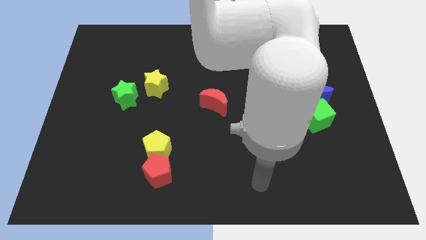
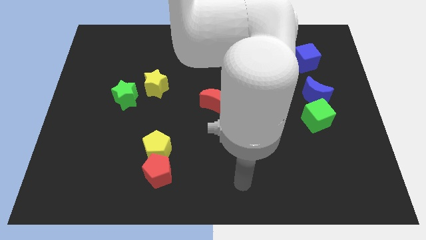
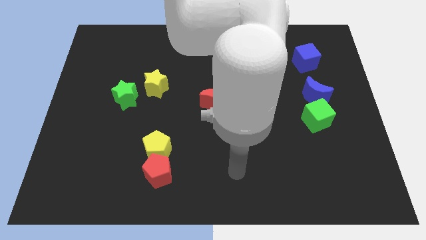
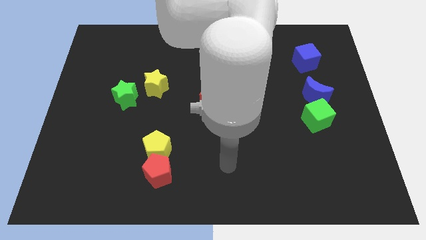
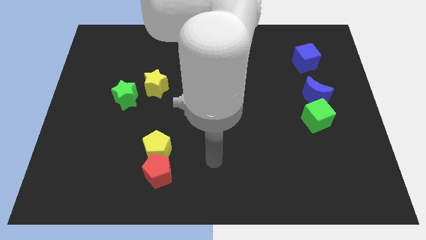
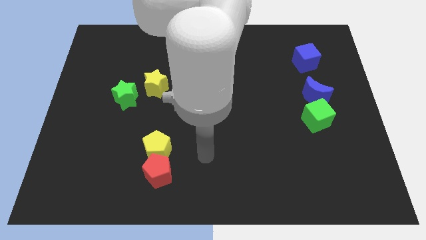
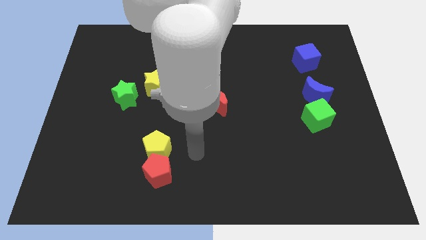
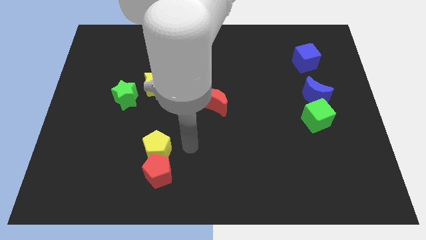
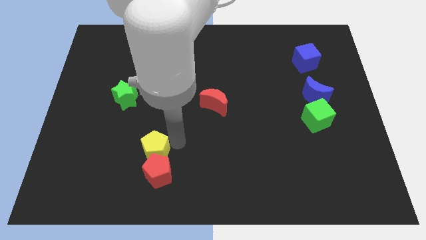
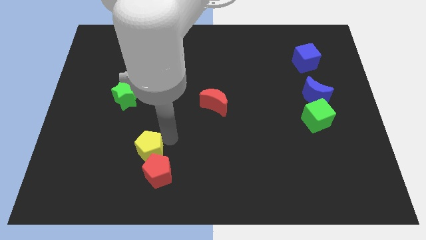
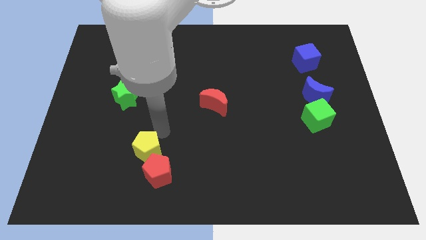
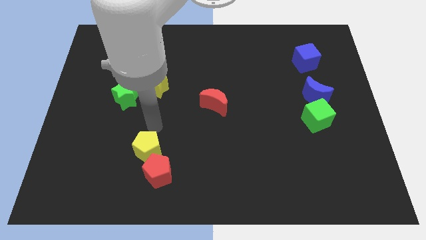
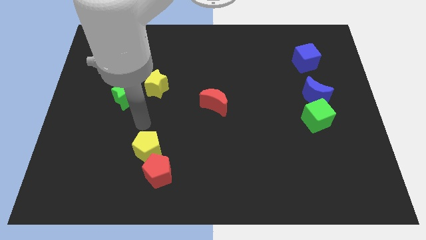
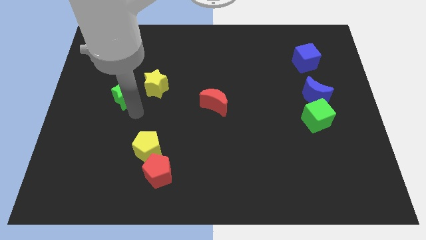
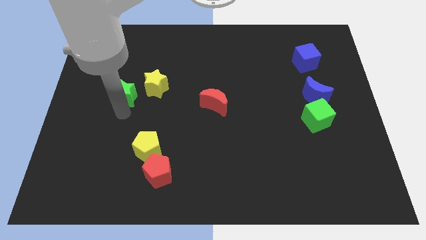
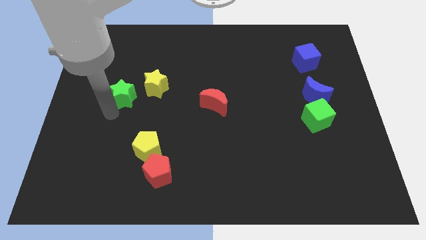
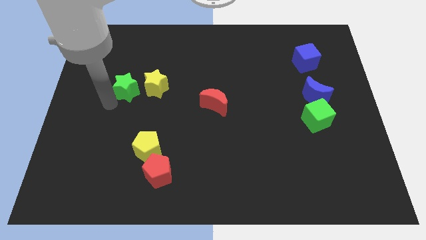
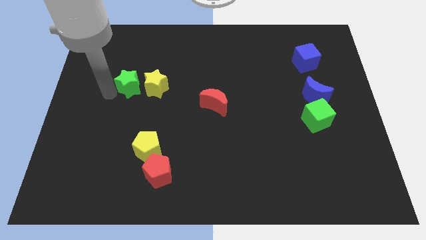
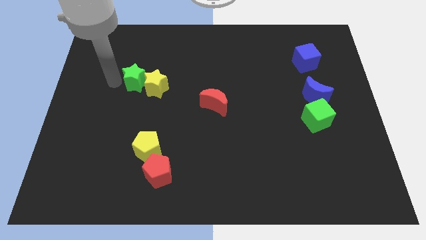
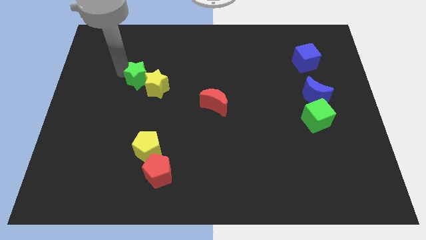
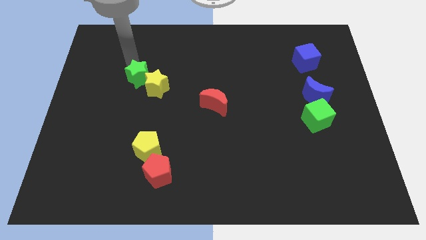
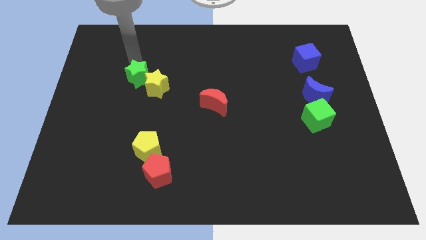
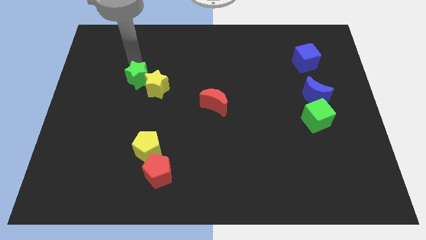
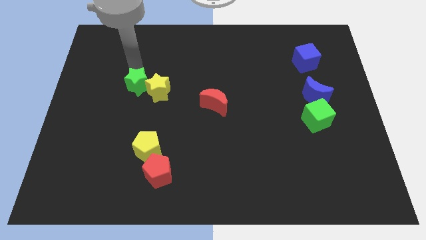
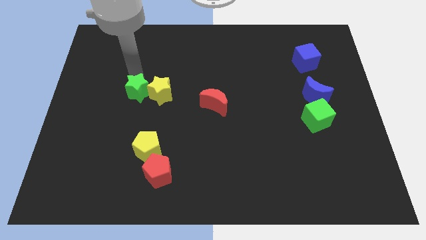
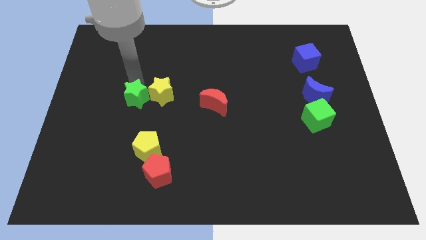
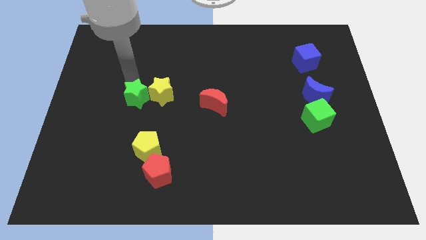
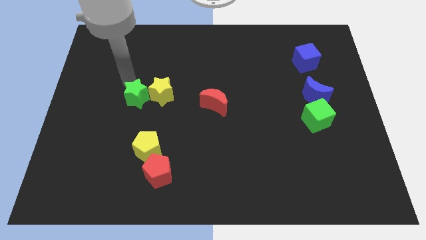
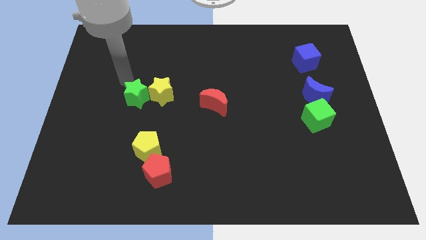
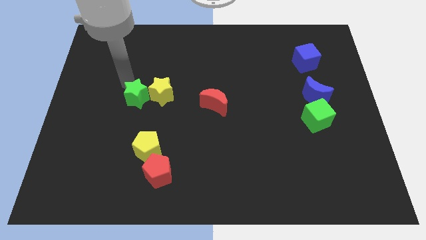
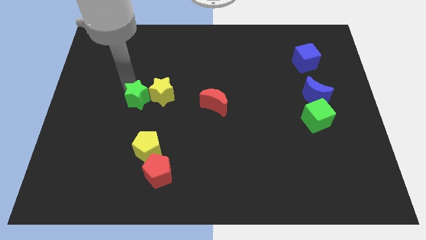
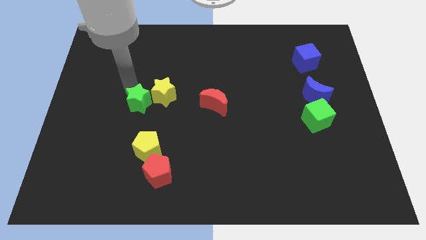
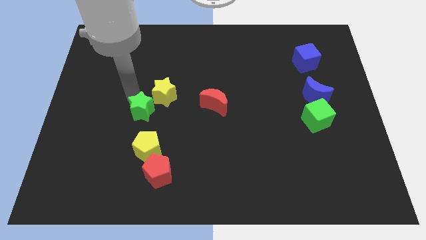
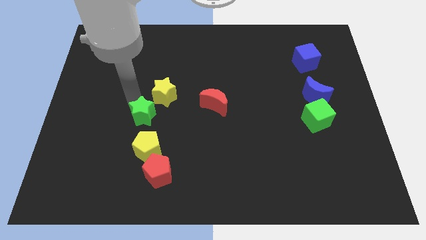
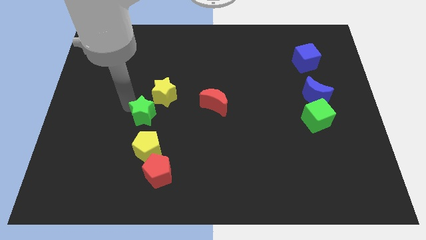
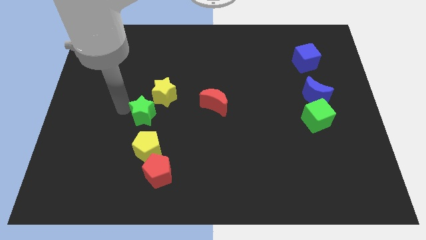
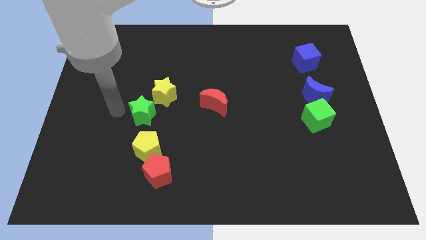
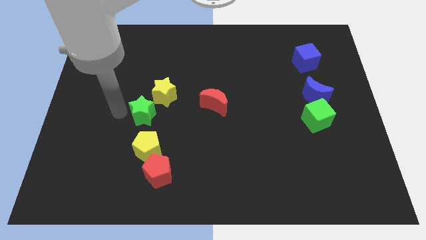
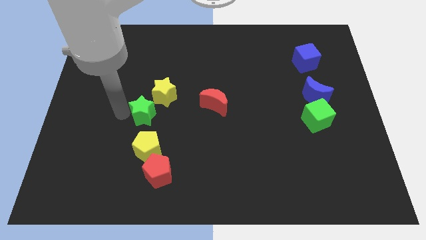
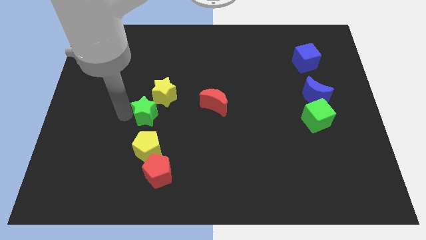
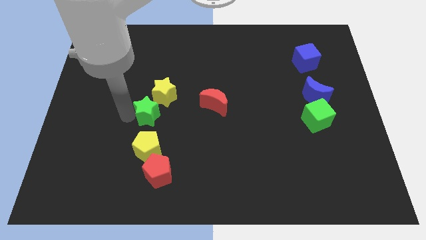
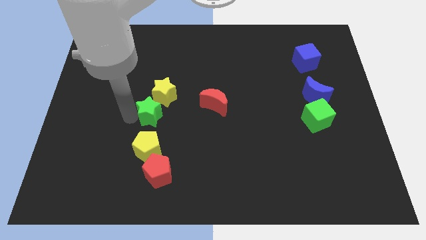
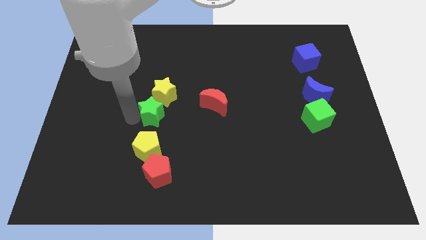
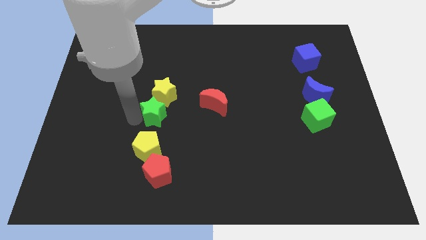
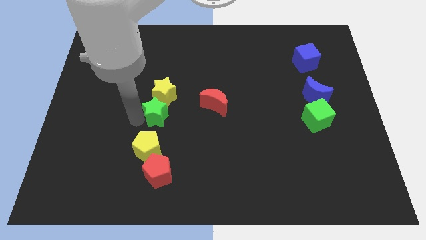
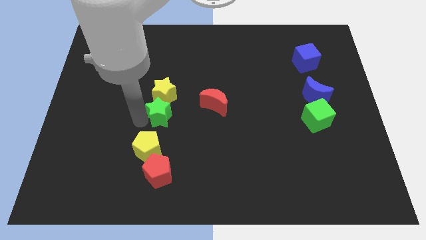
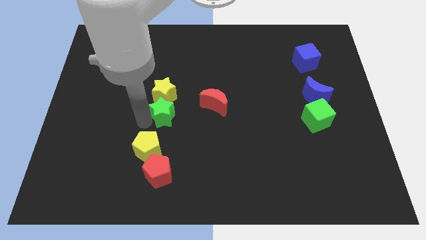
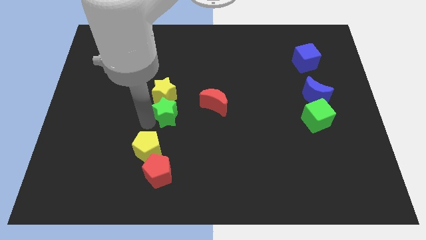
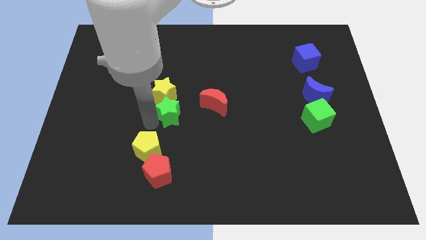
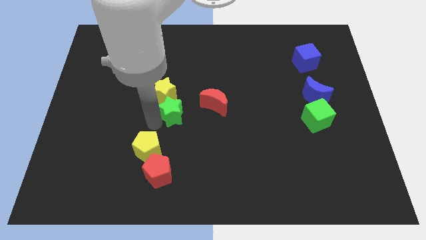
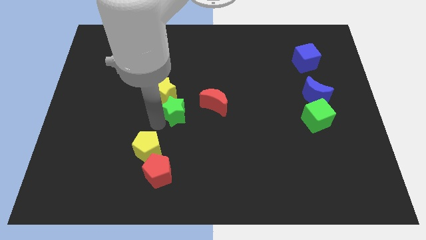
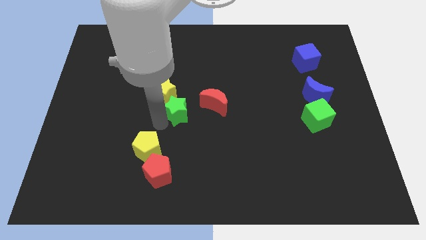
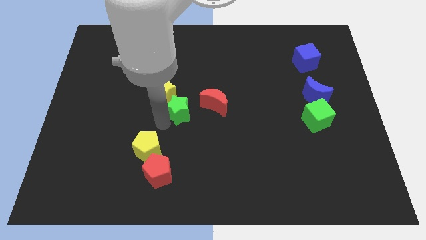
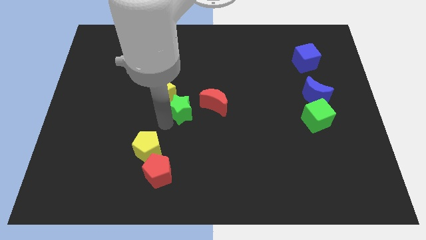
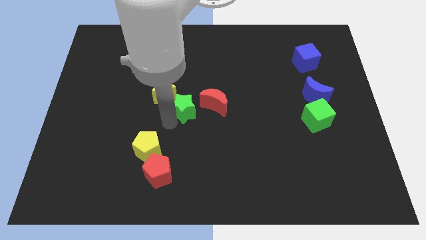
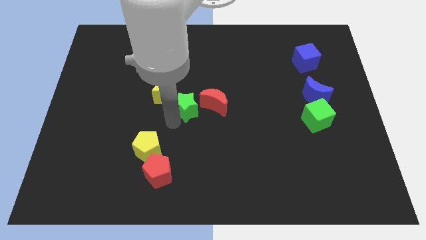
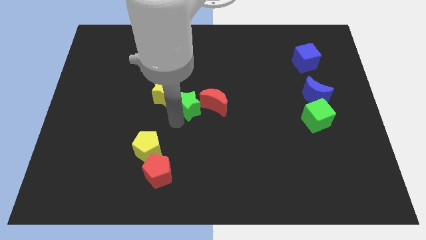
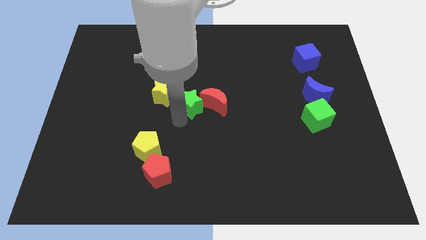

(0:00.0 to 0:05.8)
move the green star next to the red moon

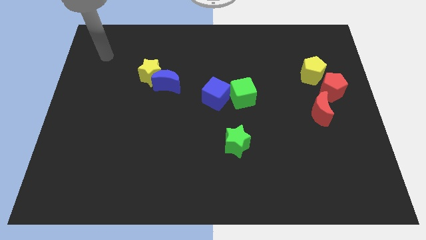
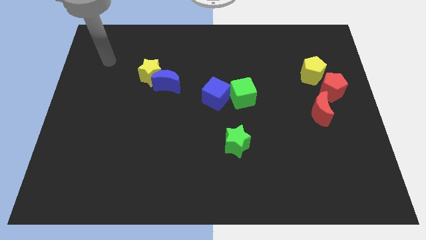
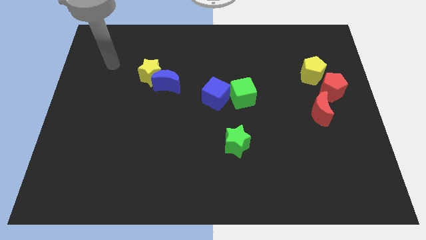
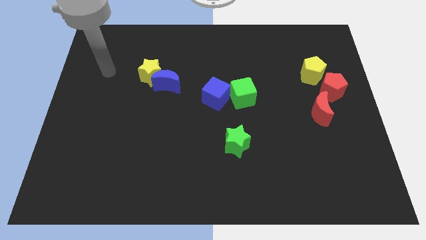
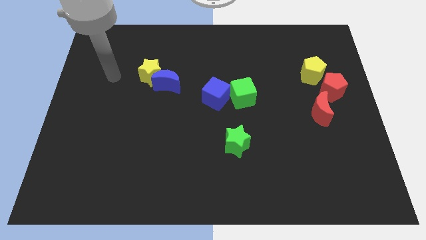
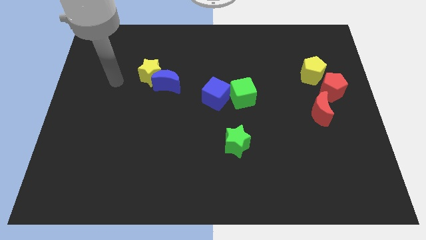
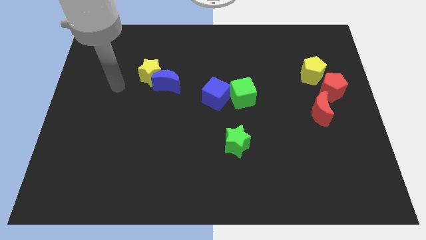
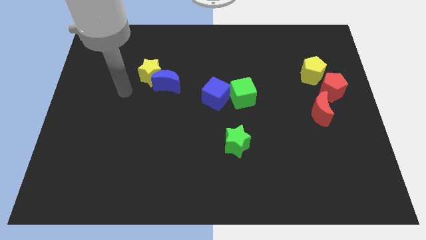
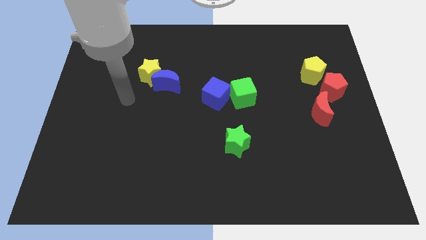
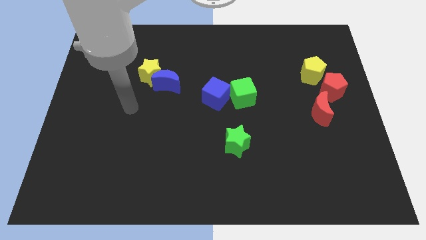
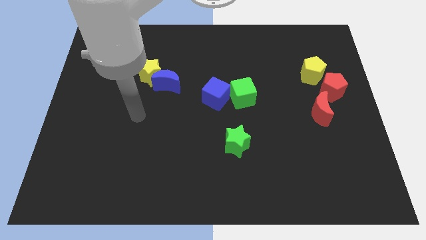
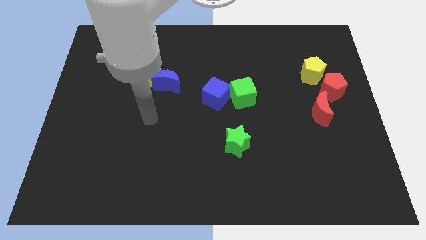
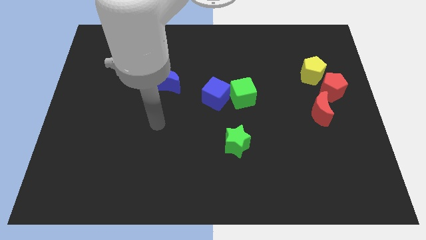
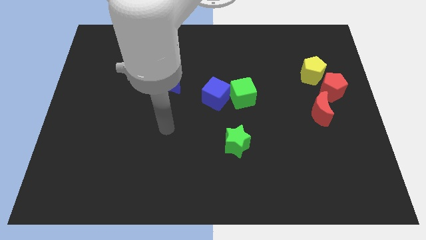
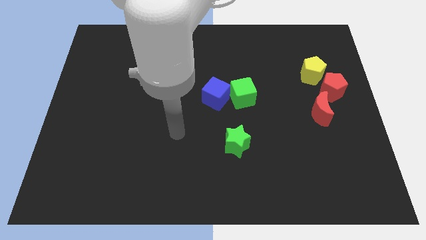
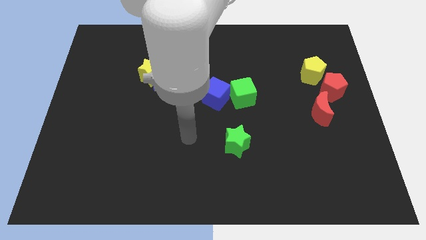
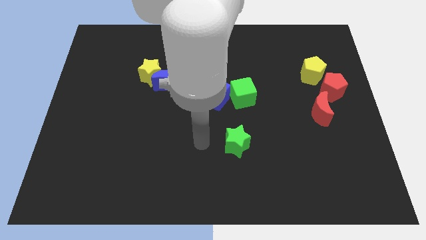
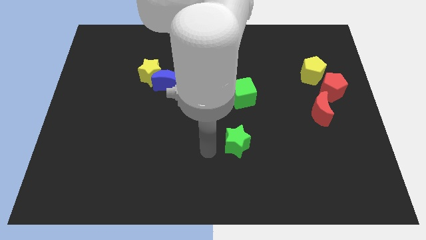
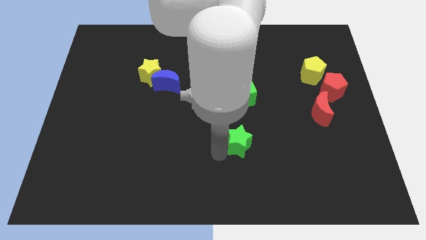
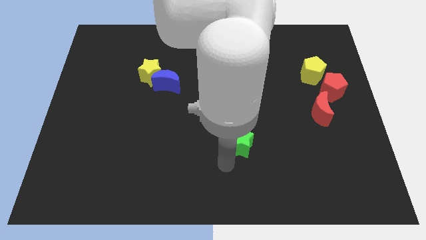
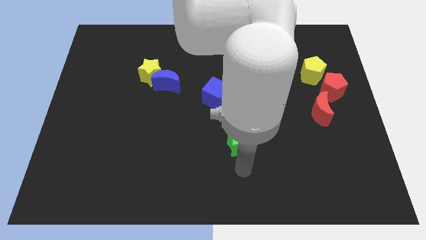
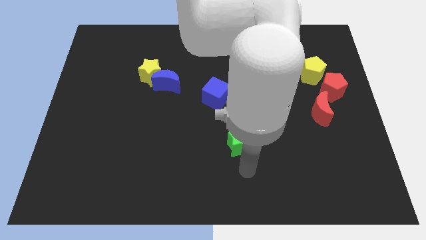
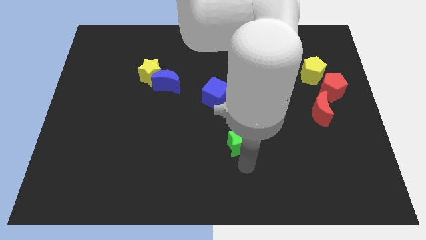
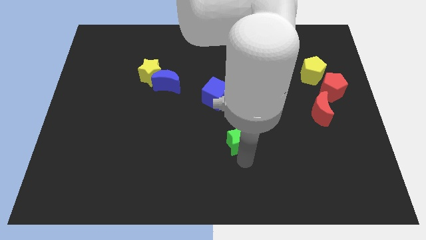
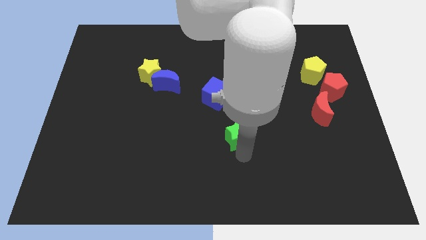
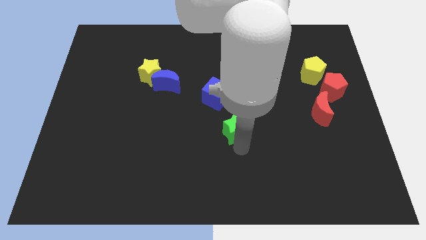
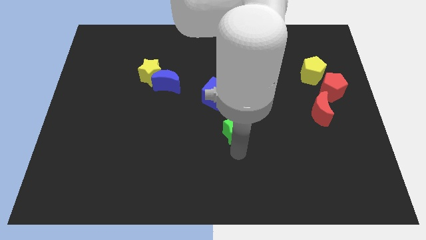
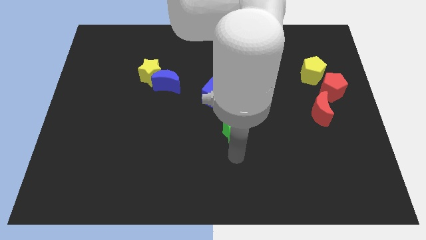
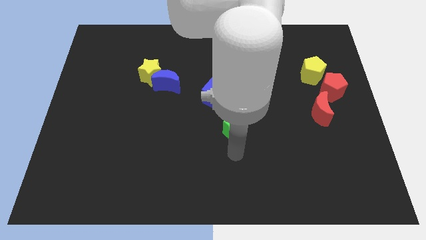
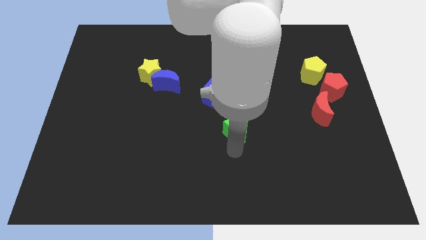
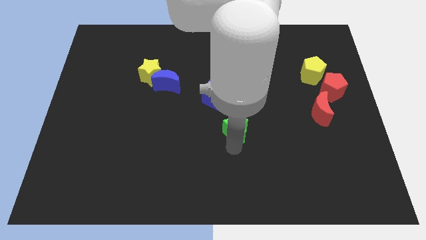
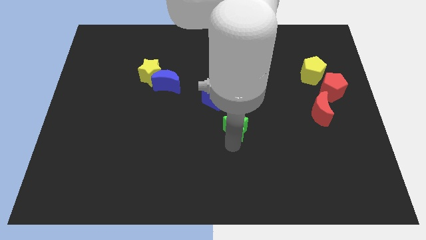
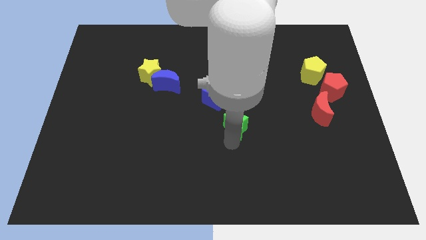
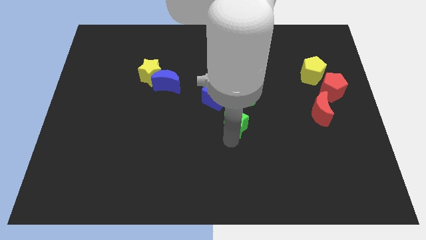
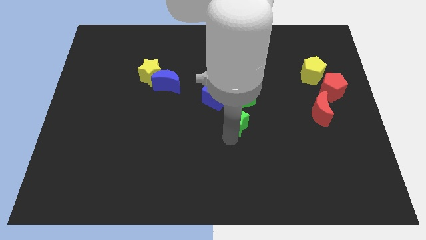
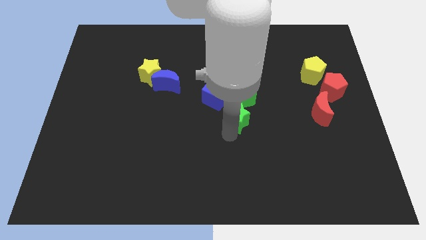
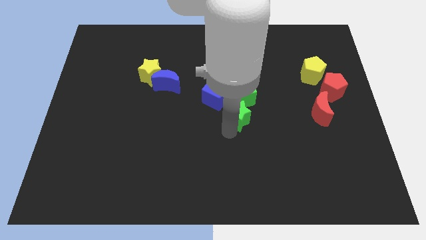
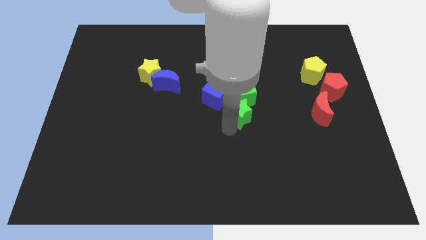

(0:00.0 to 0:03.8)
slide the green star next to the green cube
